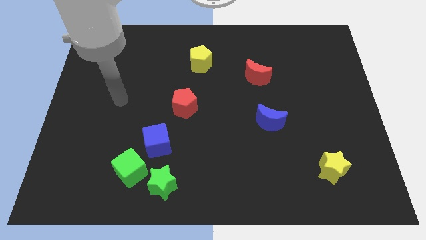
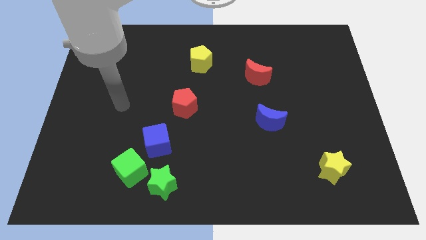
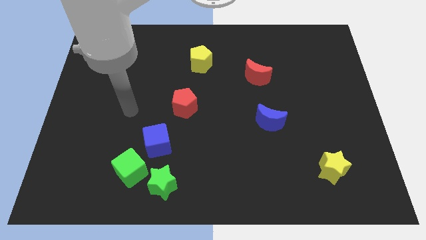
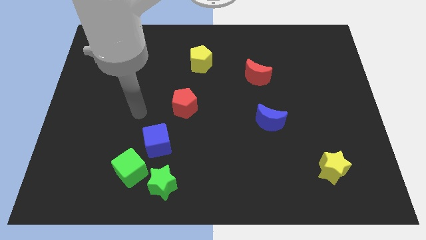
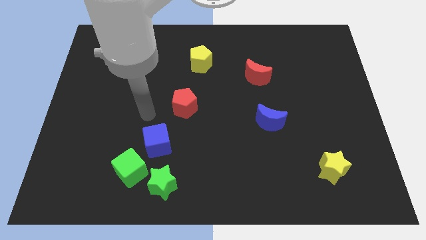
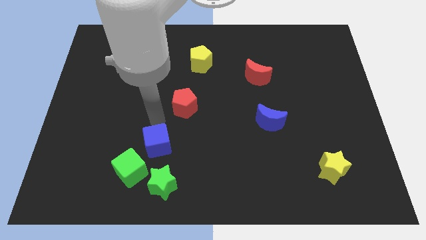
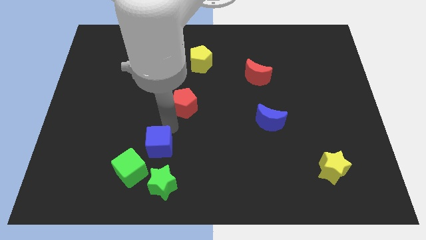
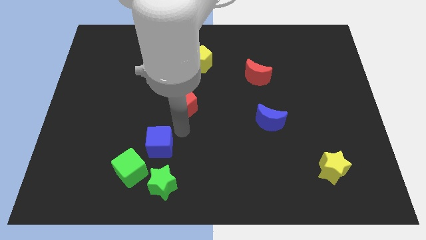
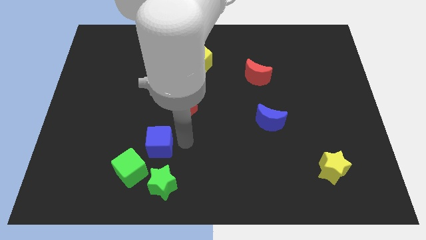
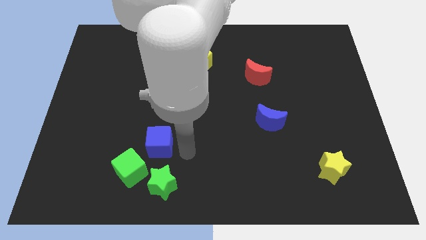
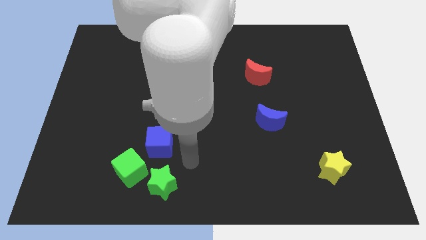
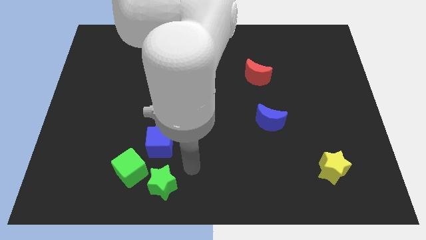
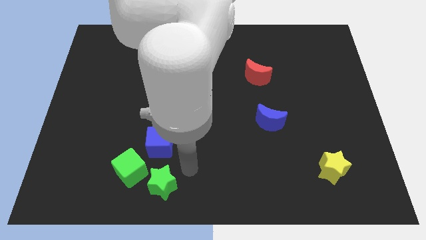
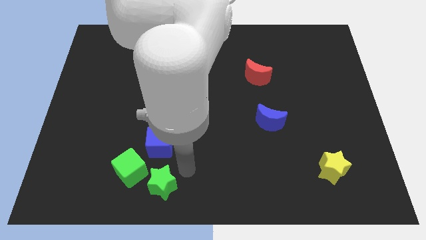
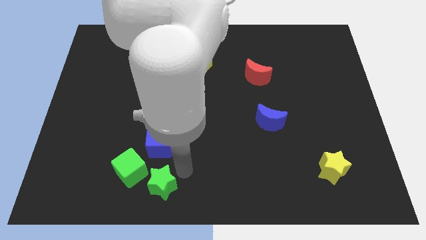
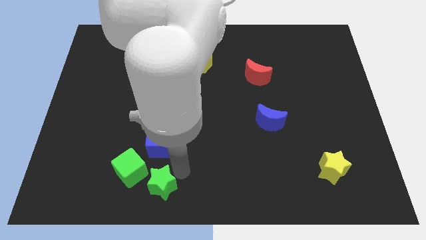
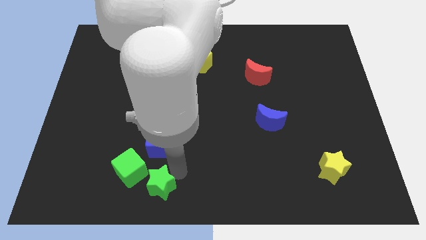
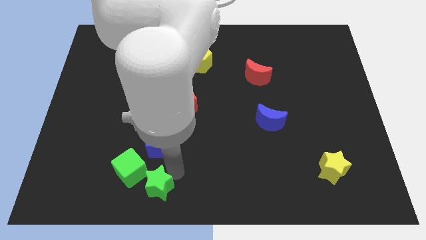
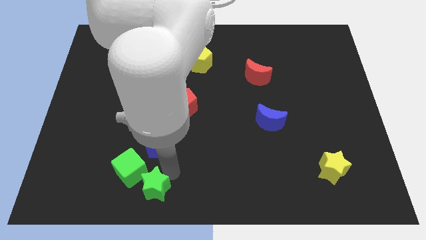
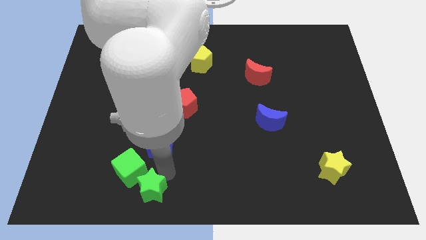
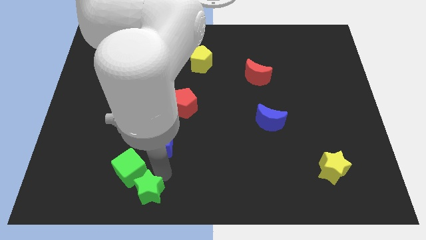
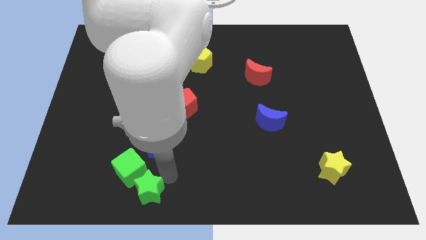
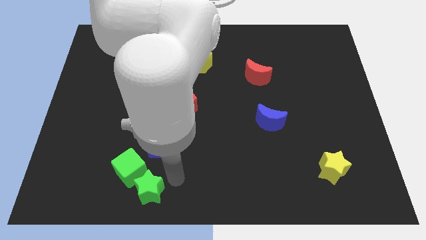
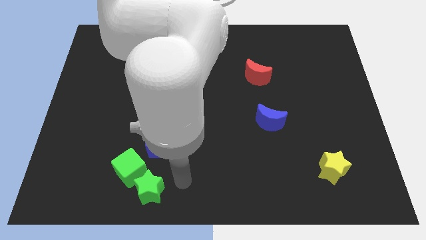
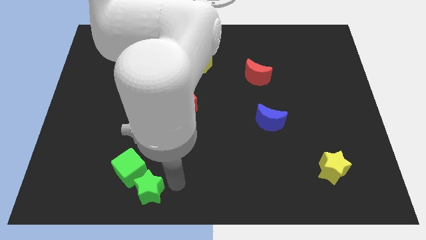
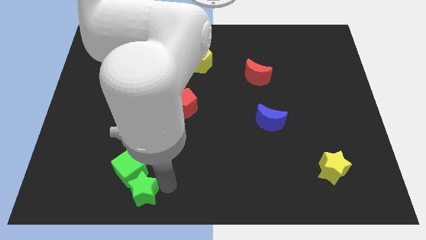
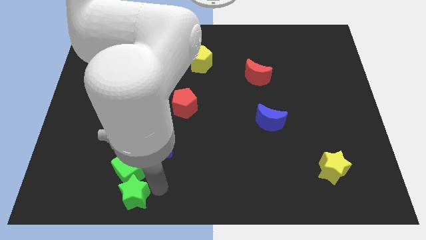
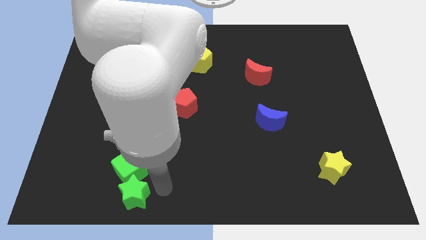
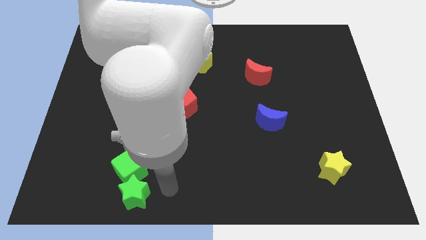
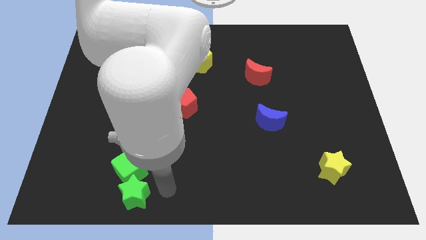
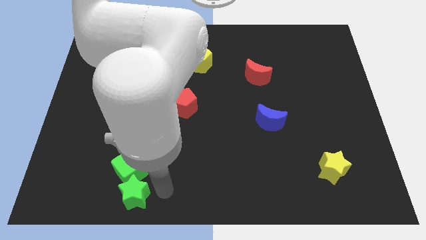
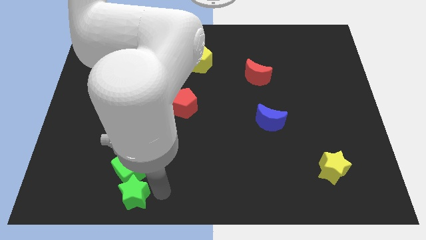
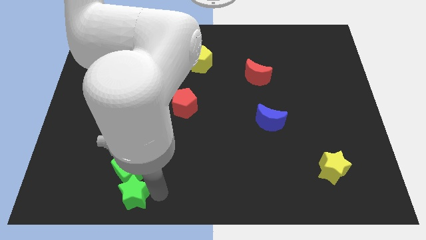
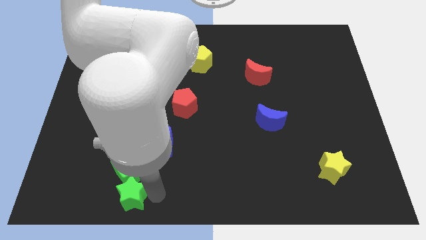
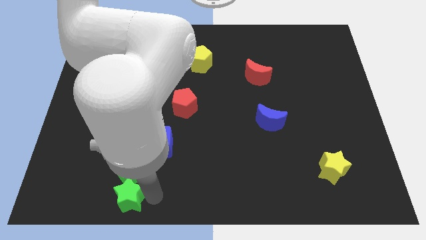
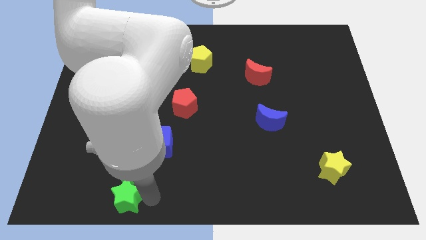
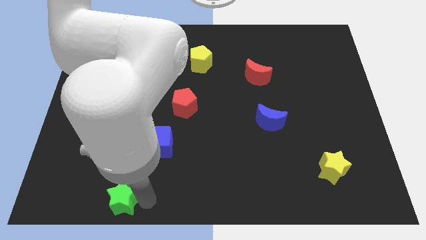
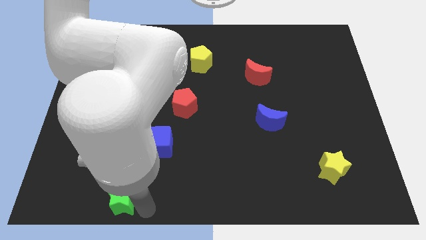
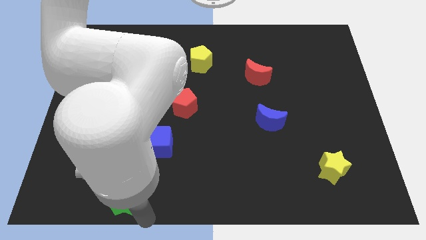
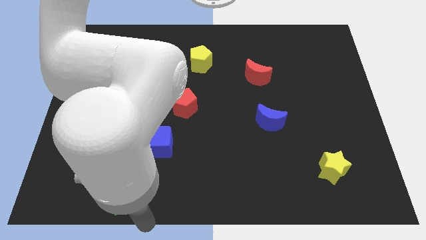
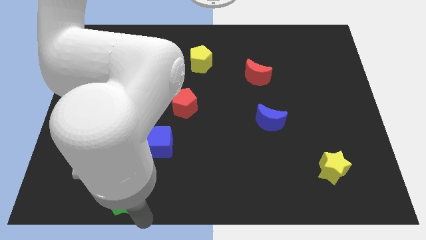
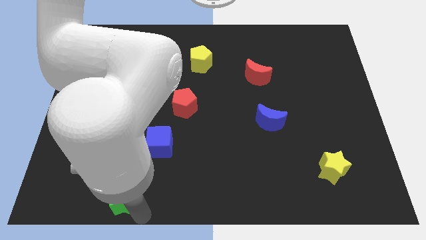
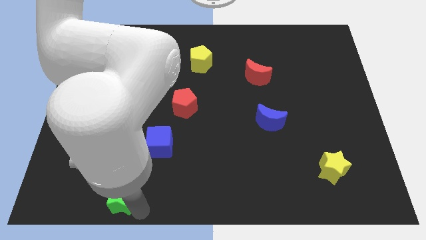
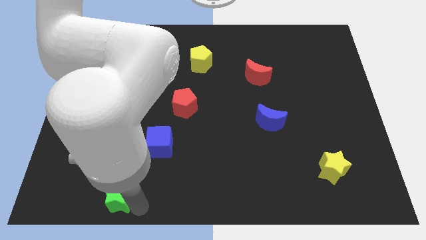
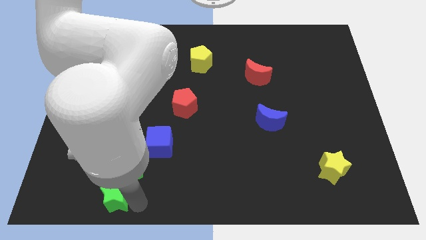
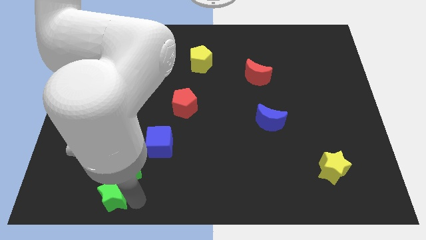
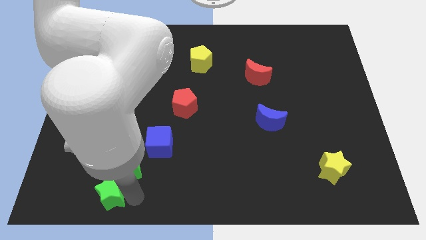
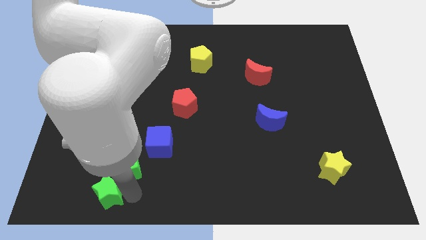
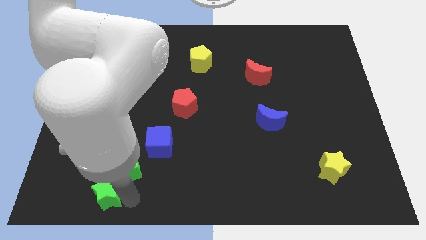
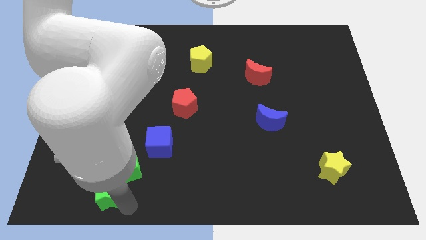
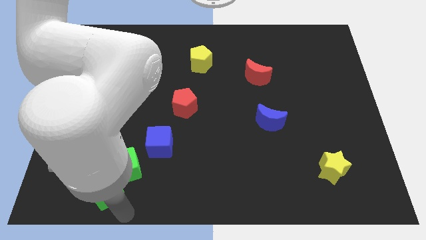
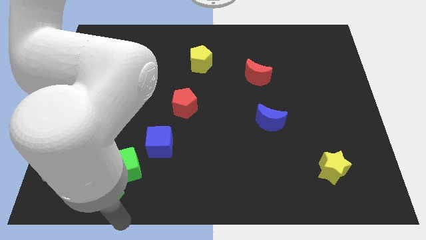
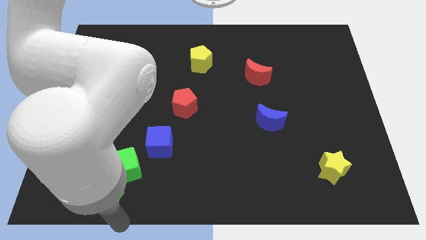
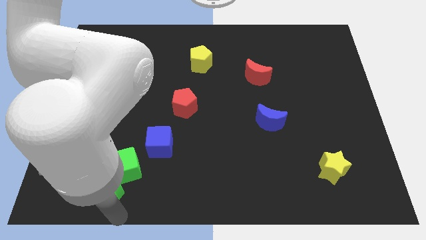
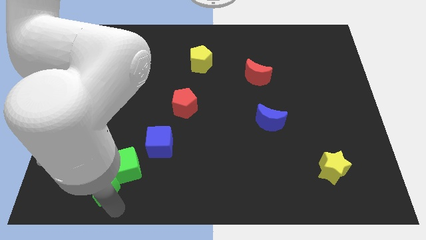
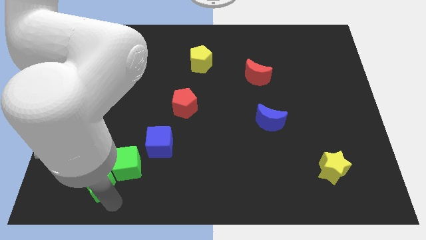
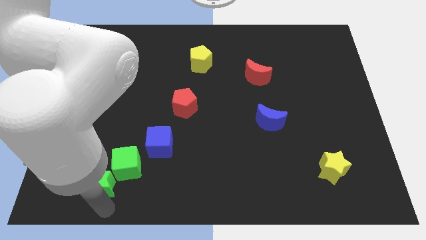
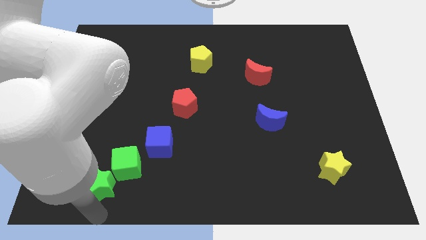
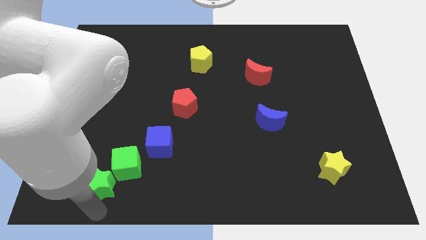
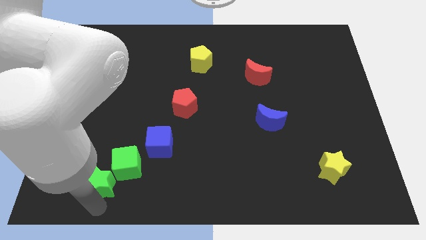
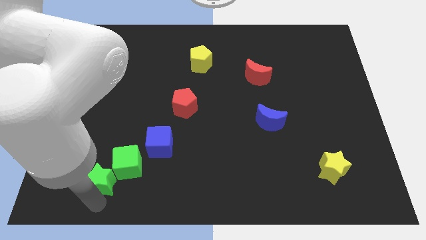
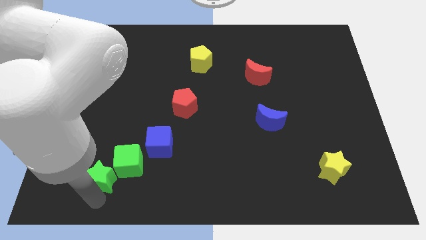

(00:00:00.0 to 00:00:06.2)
move the green star a little upwards and then left

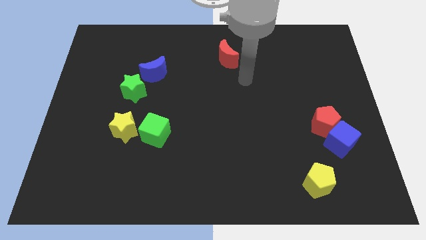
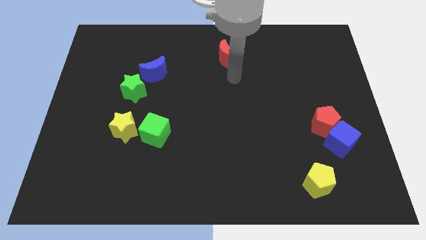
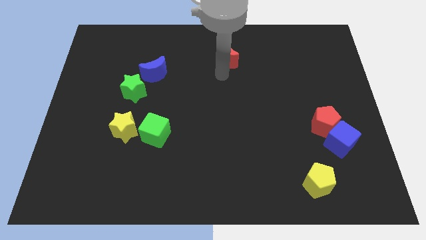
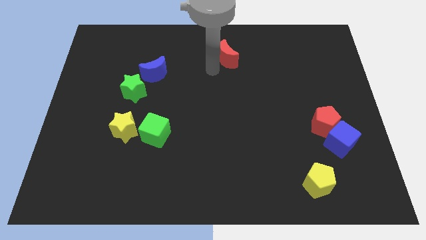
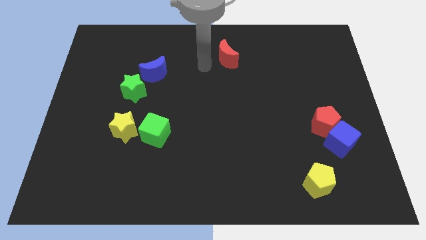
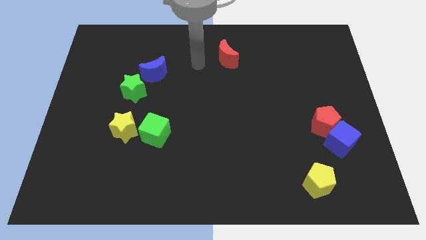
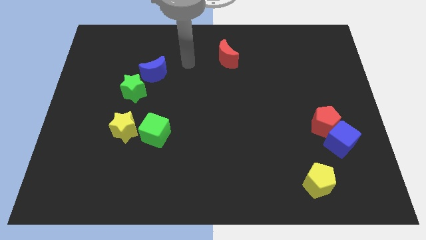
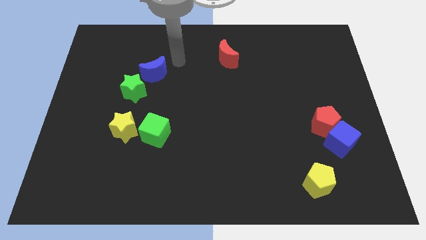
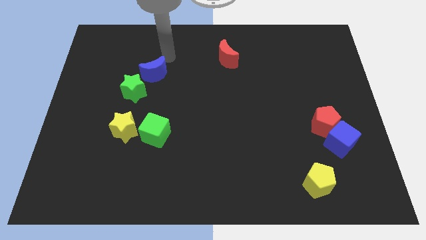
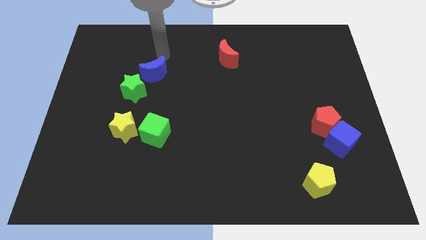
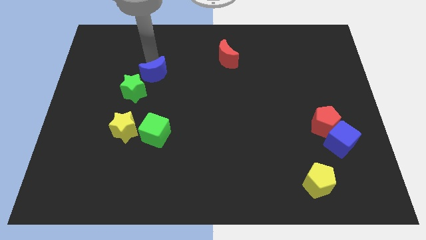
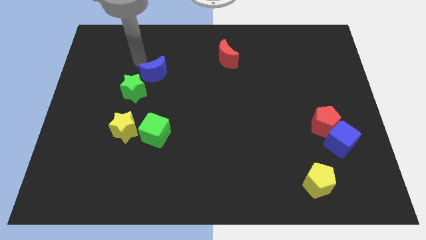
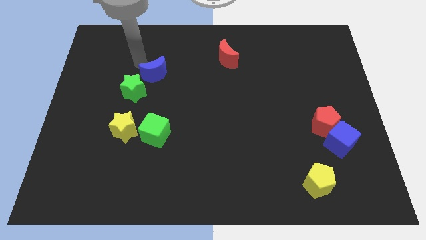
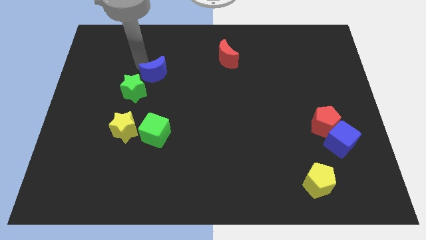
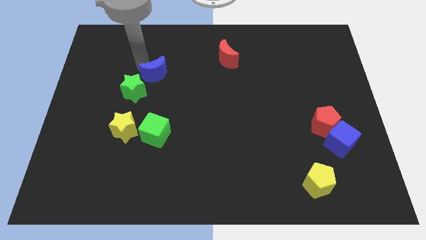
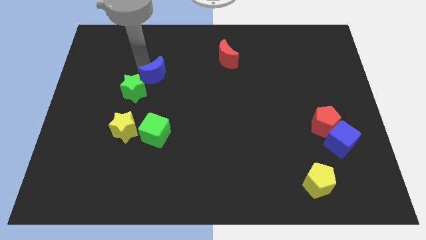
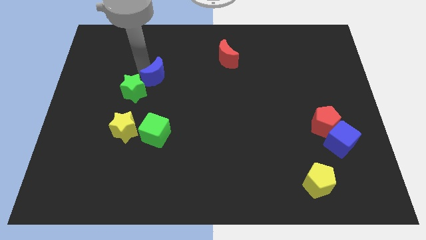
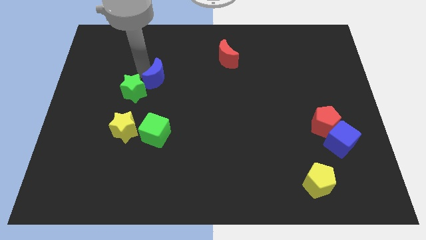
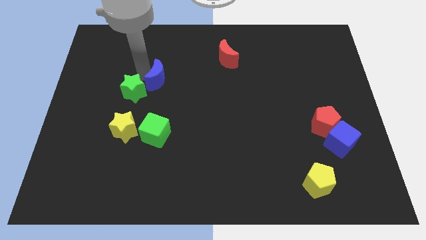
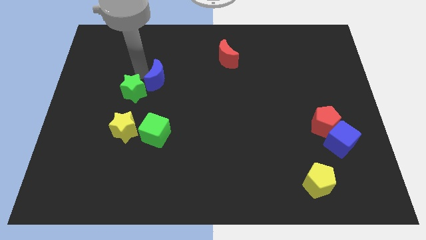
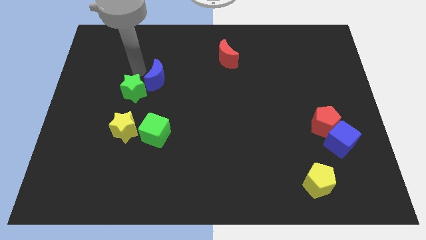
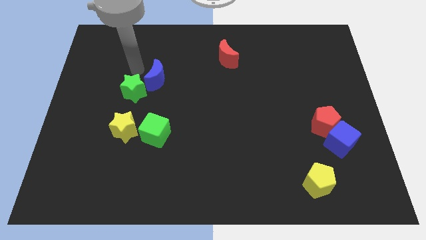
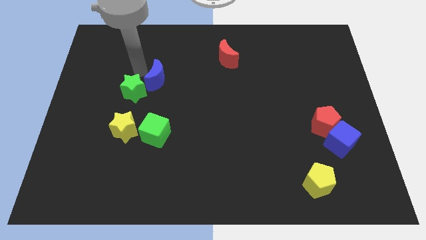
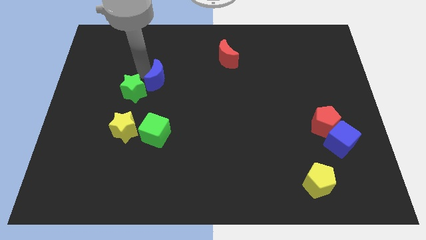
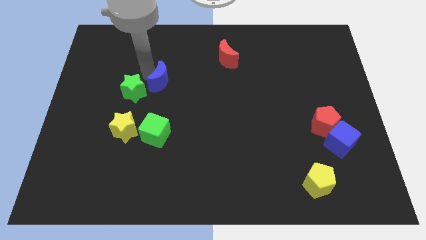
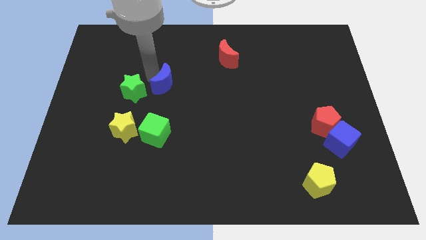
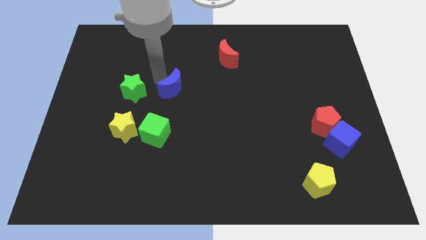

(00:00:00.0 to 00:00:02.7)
slightly slide the blue moon diagonally down and right
